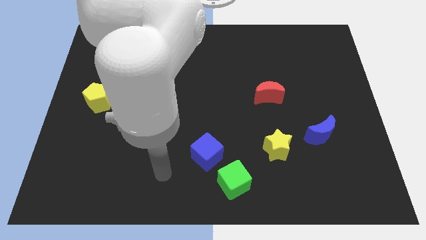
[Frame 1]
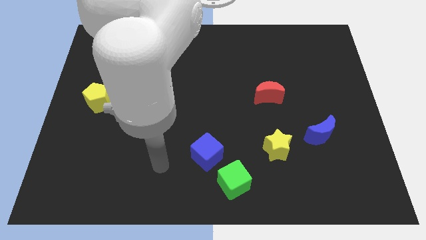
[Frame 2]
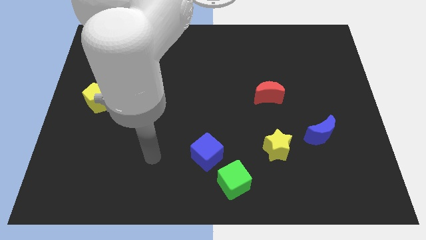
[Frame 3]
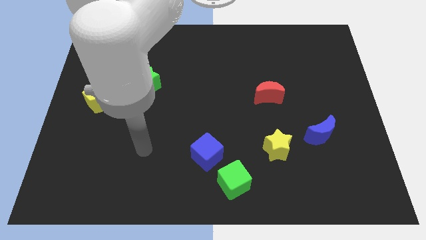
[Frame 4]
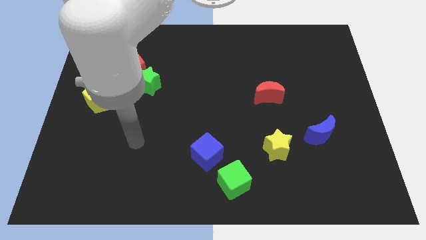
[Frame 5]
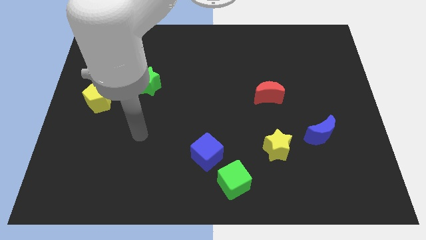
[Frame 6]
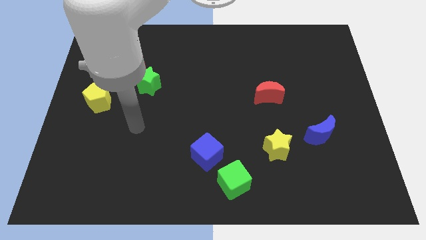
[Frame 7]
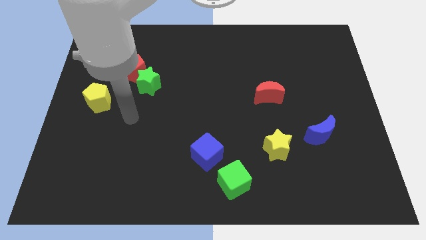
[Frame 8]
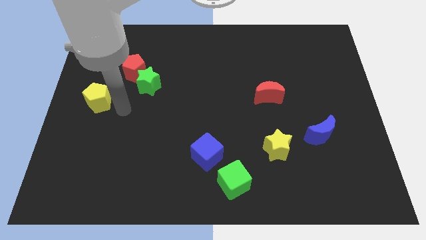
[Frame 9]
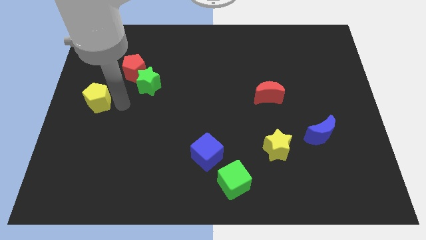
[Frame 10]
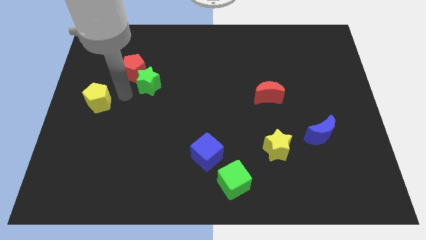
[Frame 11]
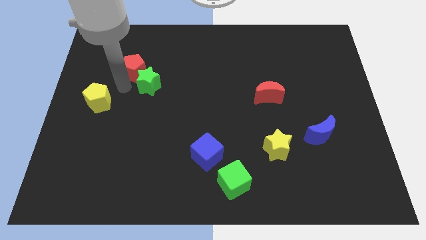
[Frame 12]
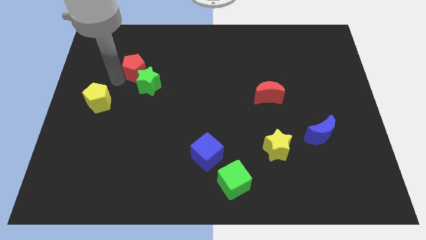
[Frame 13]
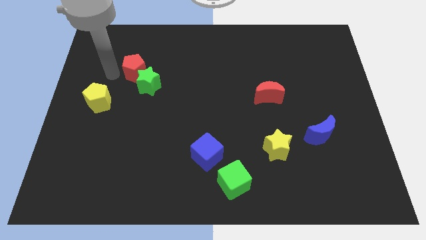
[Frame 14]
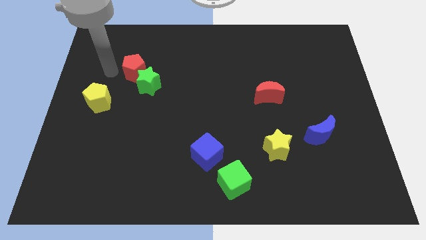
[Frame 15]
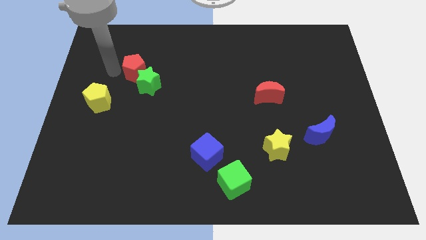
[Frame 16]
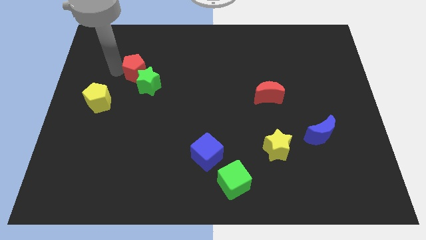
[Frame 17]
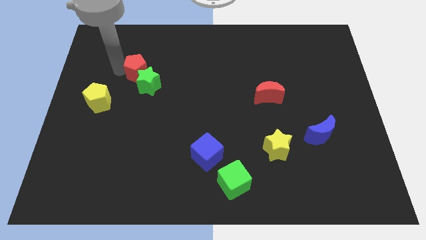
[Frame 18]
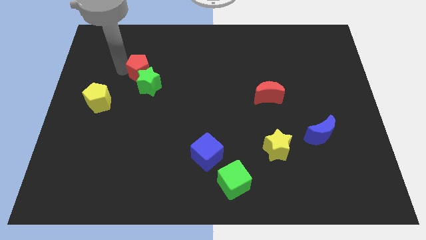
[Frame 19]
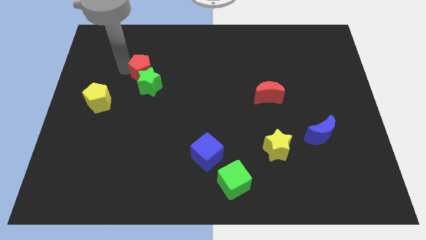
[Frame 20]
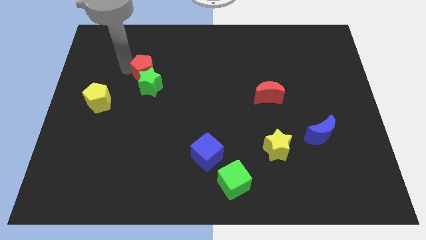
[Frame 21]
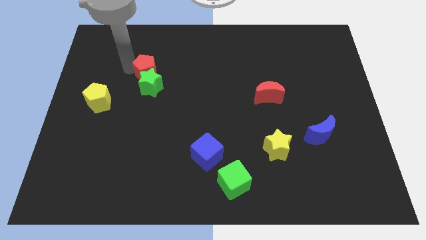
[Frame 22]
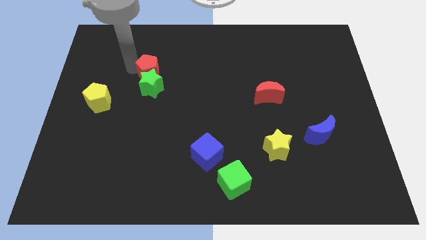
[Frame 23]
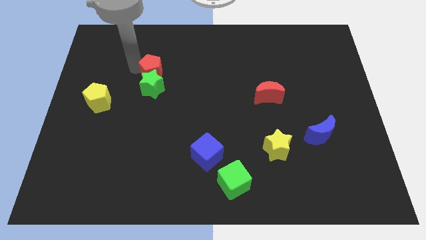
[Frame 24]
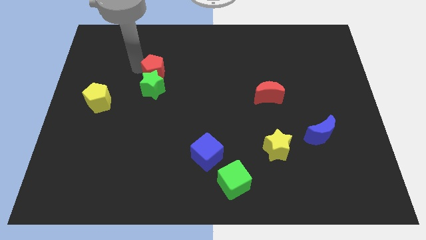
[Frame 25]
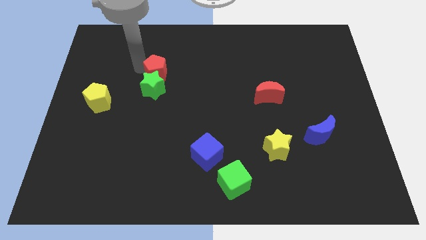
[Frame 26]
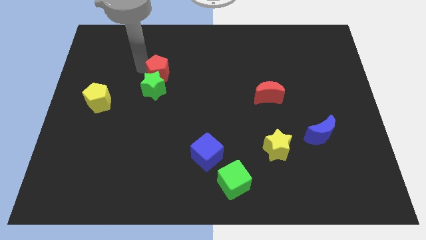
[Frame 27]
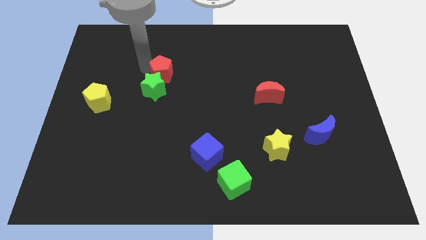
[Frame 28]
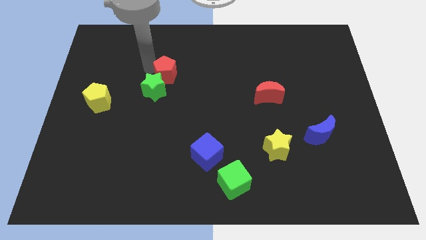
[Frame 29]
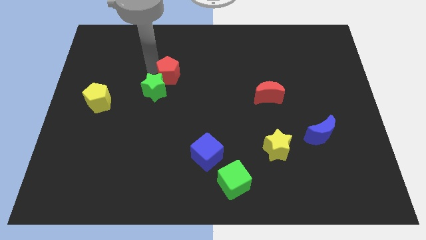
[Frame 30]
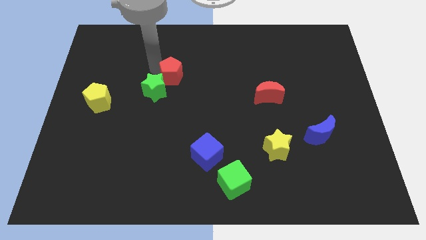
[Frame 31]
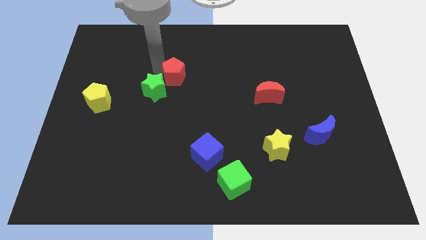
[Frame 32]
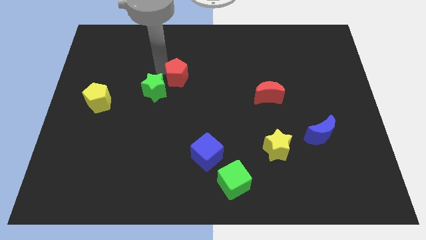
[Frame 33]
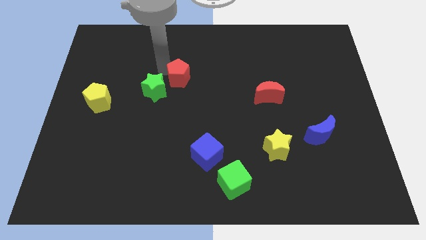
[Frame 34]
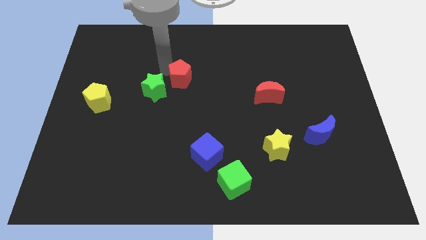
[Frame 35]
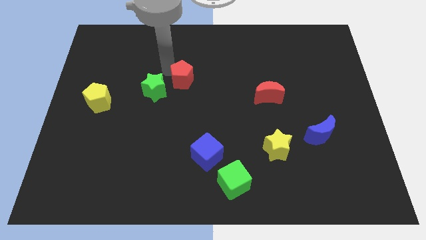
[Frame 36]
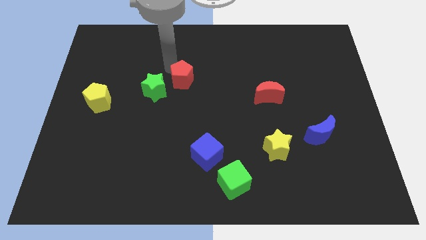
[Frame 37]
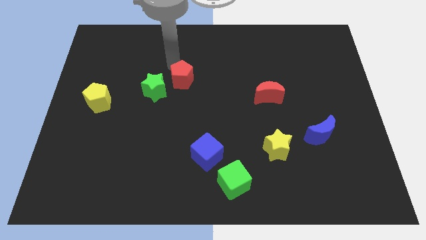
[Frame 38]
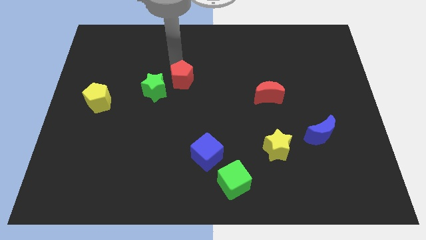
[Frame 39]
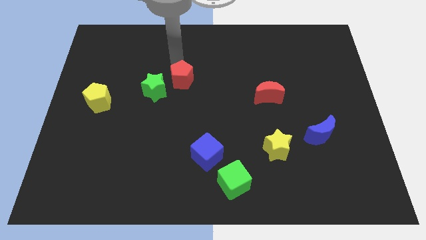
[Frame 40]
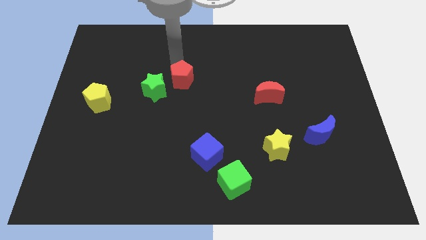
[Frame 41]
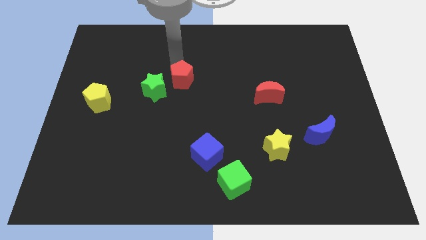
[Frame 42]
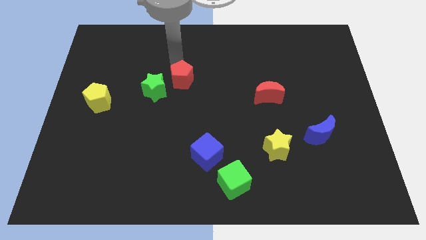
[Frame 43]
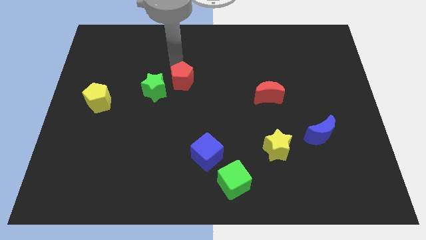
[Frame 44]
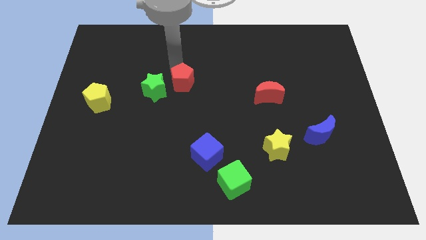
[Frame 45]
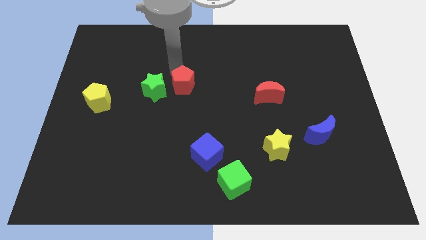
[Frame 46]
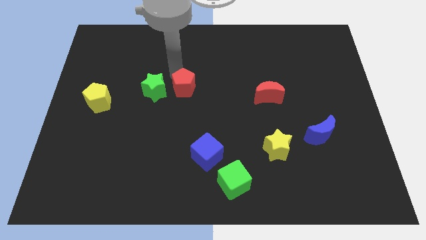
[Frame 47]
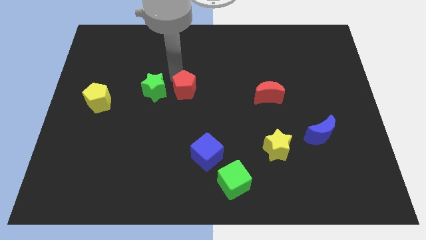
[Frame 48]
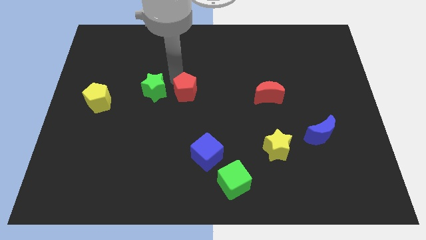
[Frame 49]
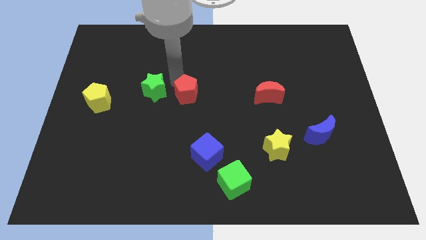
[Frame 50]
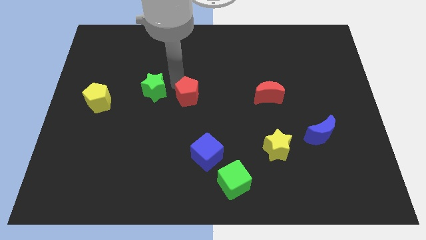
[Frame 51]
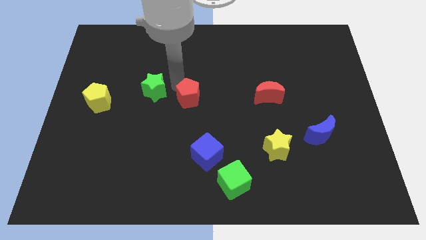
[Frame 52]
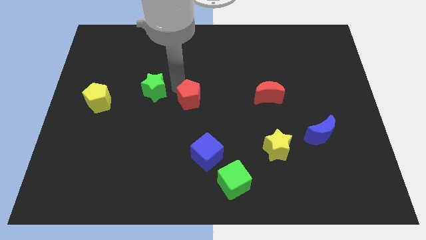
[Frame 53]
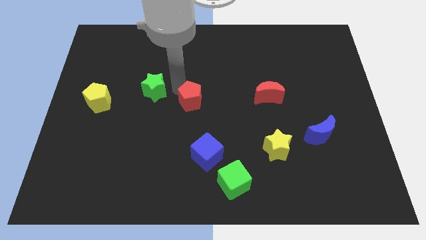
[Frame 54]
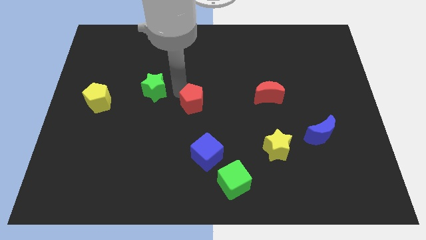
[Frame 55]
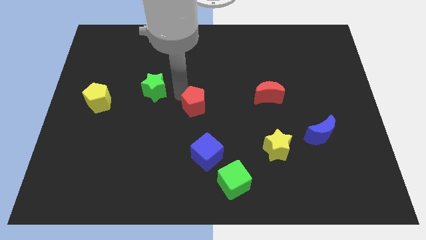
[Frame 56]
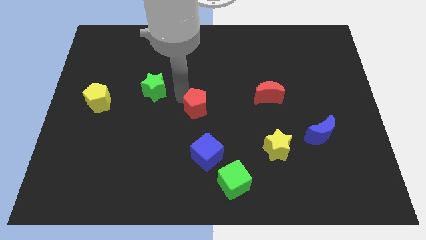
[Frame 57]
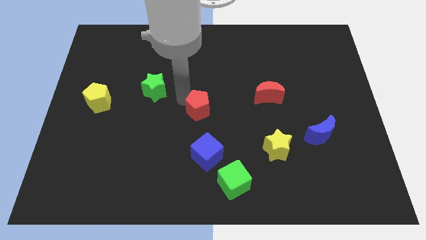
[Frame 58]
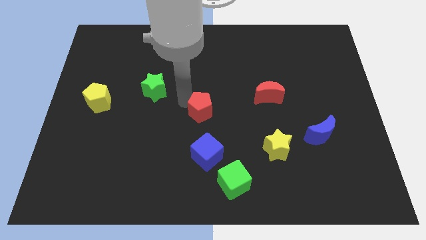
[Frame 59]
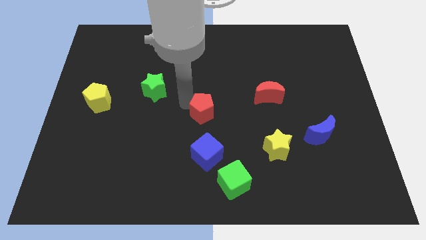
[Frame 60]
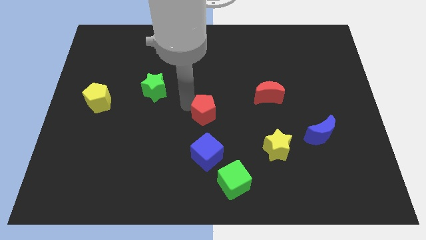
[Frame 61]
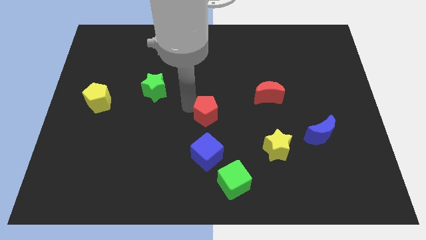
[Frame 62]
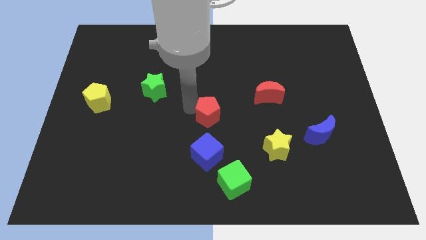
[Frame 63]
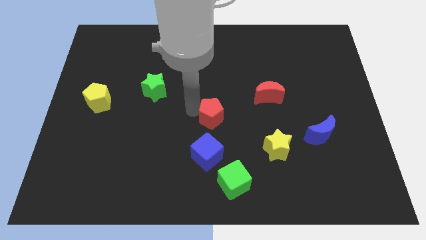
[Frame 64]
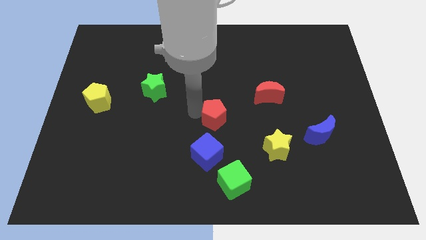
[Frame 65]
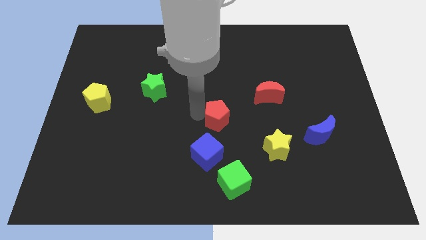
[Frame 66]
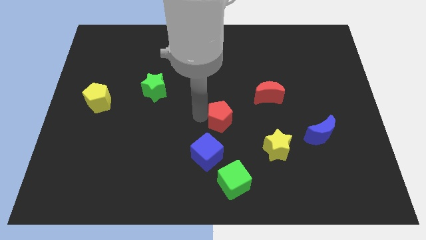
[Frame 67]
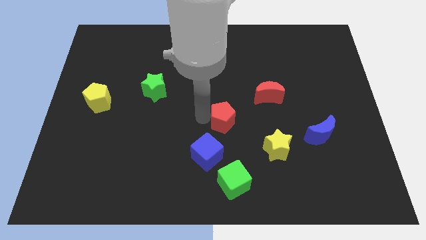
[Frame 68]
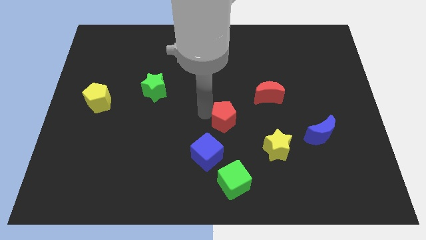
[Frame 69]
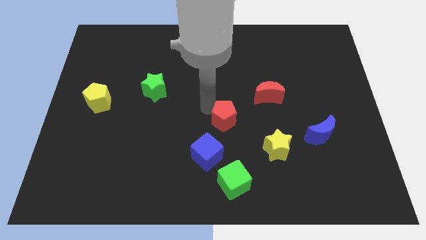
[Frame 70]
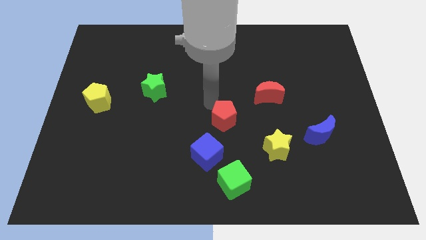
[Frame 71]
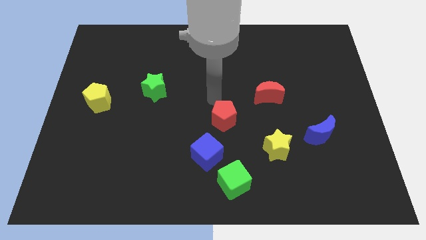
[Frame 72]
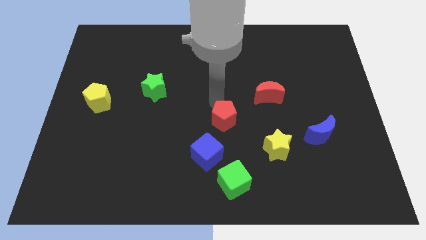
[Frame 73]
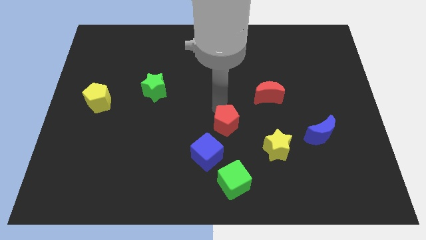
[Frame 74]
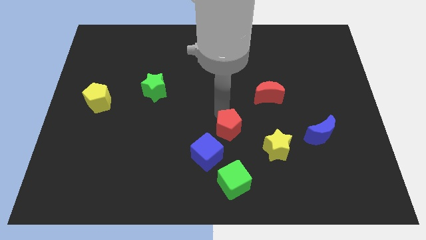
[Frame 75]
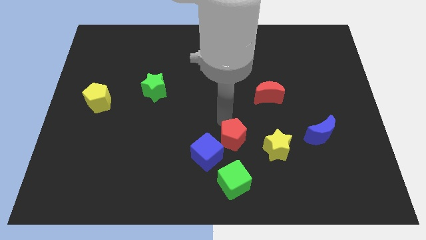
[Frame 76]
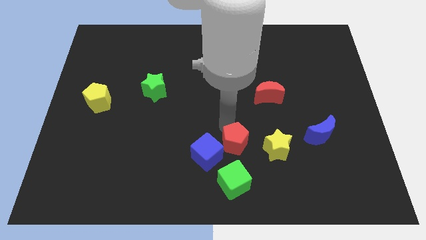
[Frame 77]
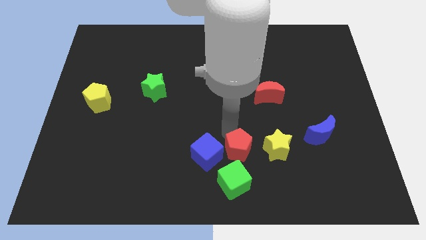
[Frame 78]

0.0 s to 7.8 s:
put the red pentagon to the top right of the green cube
